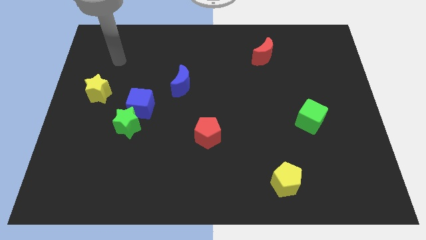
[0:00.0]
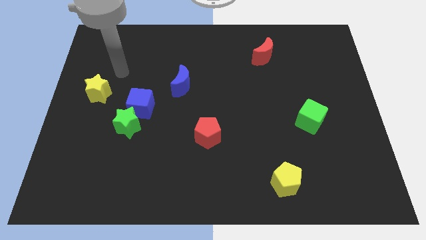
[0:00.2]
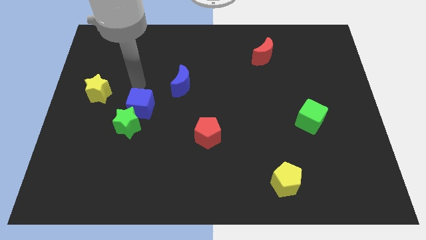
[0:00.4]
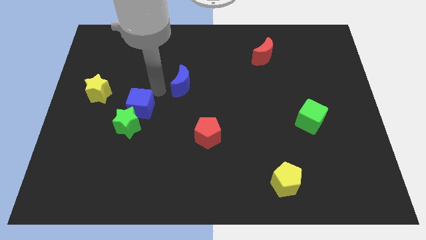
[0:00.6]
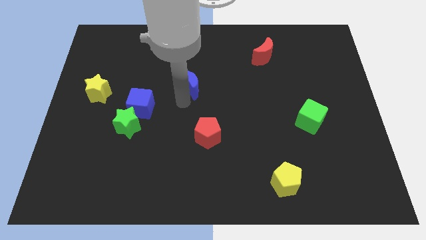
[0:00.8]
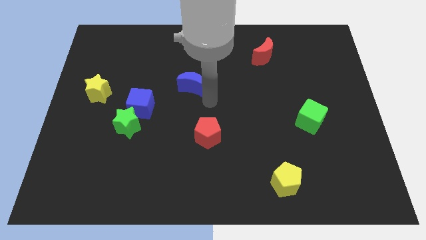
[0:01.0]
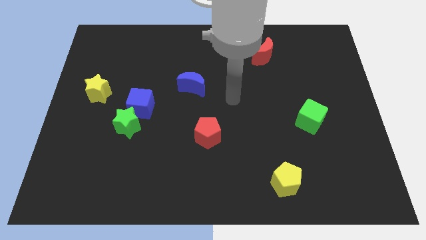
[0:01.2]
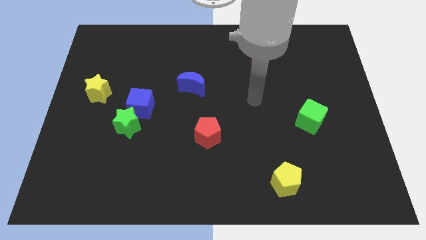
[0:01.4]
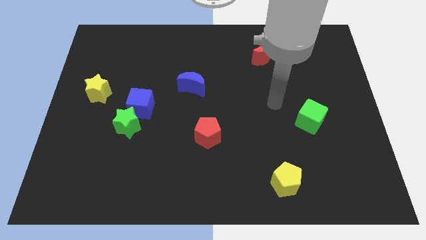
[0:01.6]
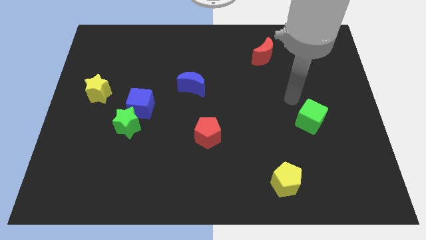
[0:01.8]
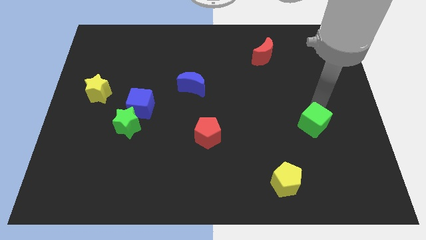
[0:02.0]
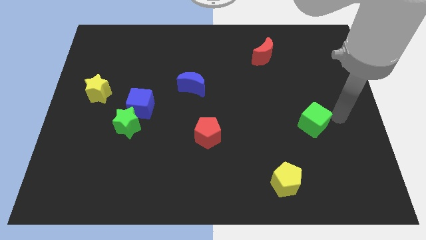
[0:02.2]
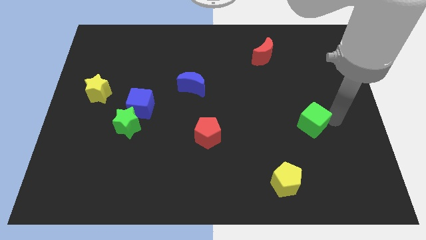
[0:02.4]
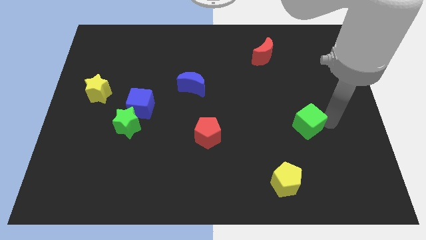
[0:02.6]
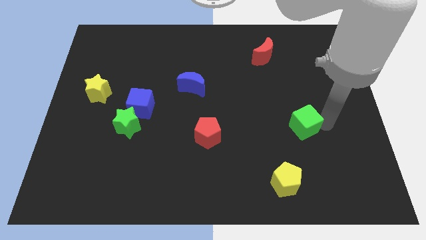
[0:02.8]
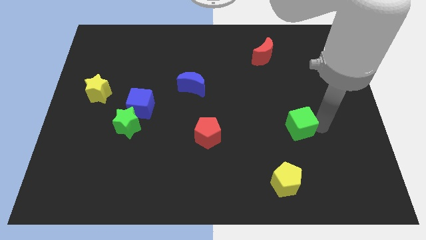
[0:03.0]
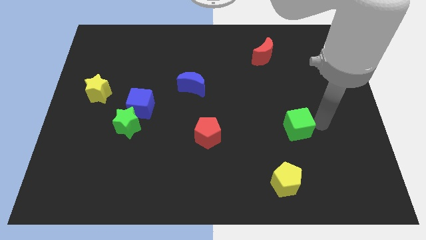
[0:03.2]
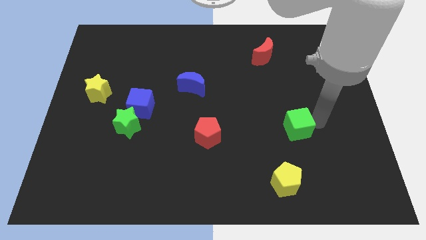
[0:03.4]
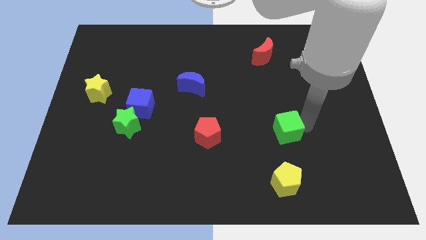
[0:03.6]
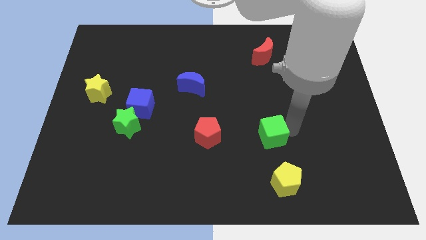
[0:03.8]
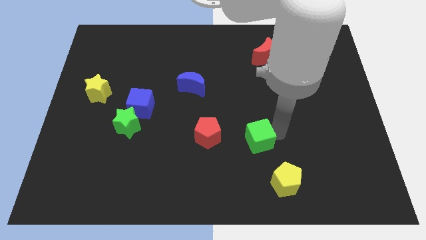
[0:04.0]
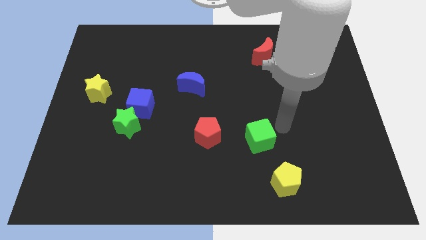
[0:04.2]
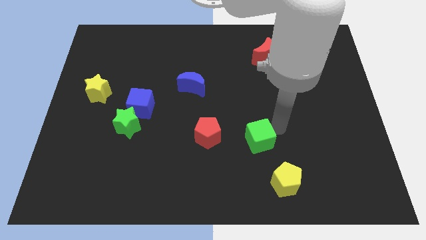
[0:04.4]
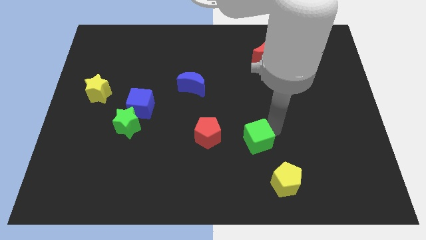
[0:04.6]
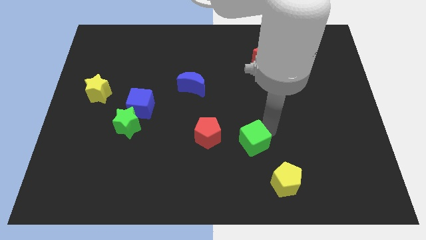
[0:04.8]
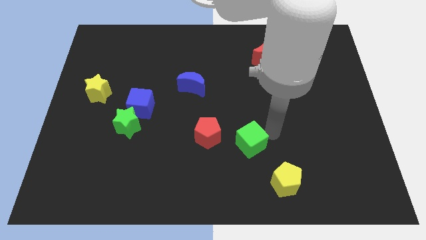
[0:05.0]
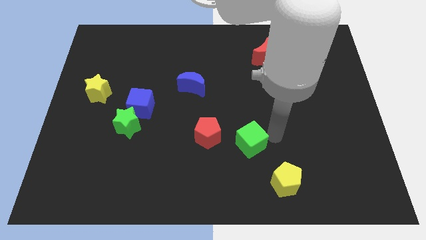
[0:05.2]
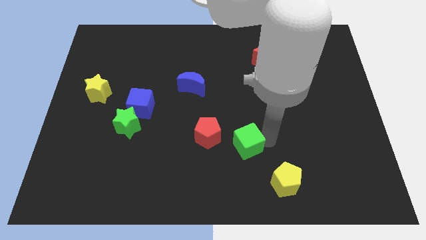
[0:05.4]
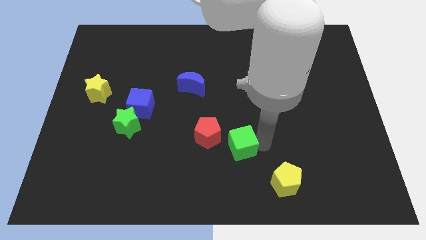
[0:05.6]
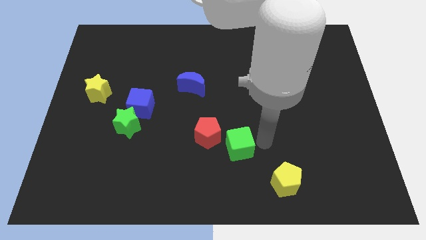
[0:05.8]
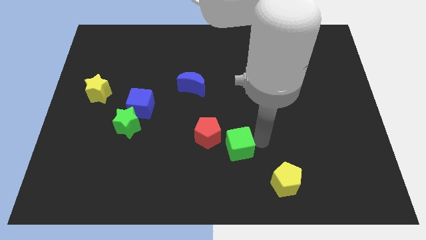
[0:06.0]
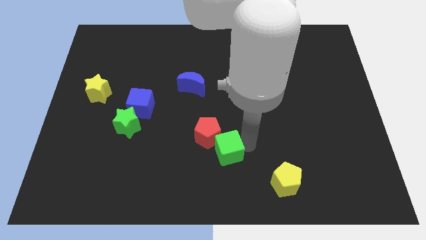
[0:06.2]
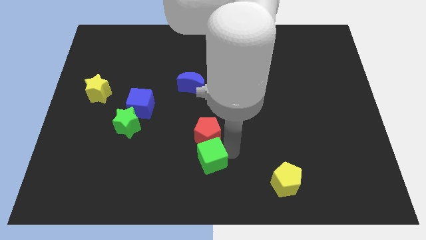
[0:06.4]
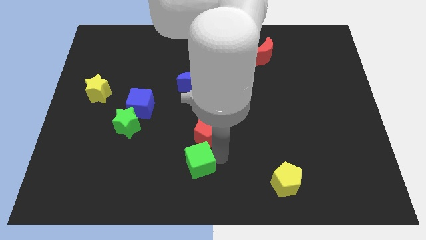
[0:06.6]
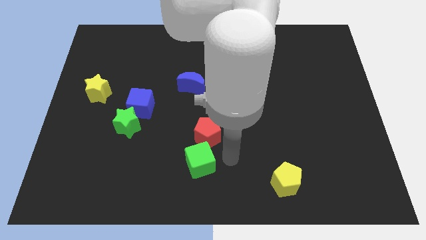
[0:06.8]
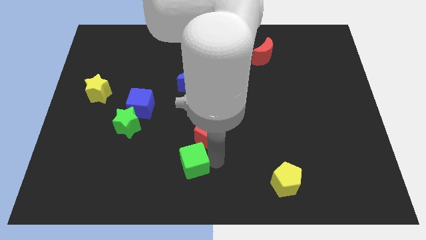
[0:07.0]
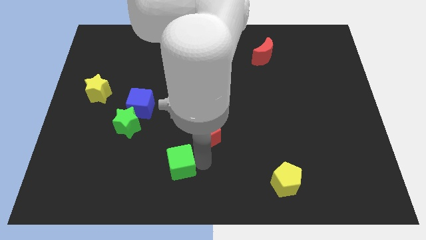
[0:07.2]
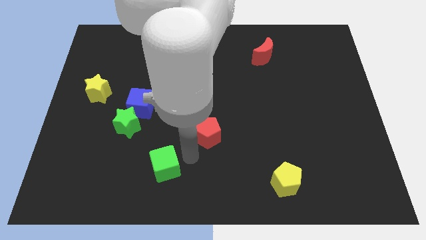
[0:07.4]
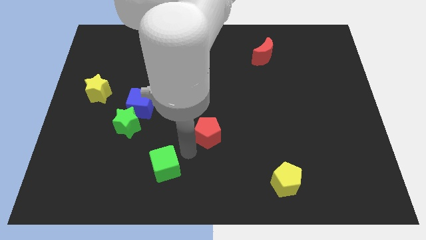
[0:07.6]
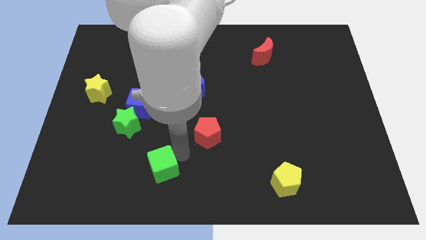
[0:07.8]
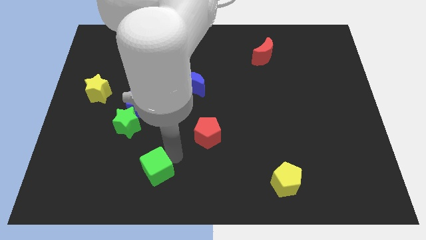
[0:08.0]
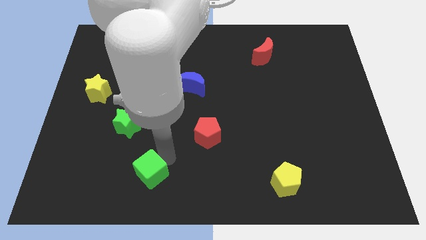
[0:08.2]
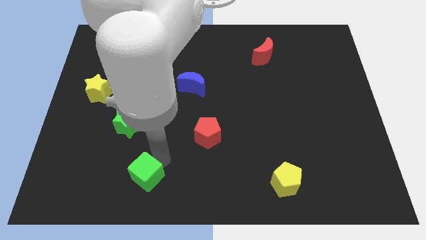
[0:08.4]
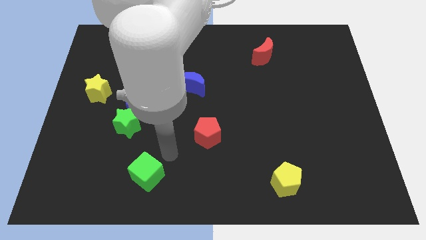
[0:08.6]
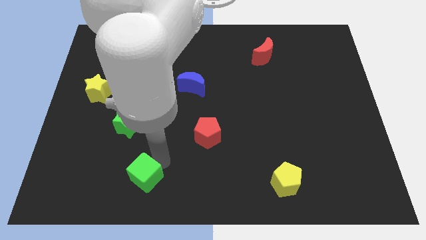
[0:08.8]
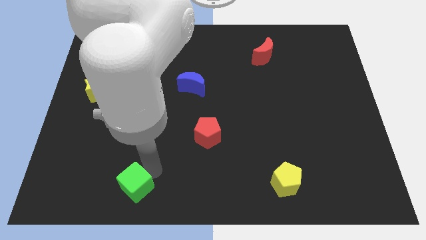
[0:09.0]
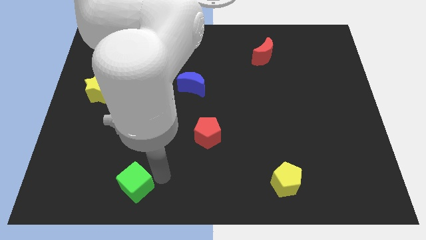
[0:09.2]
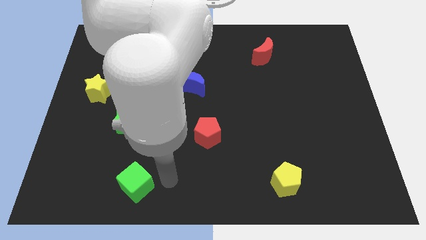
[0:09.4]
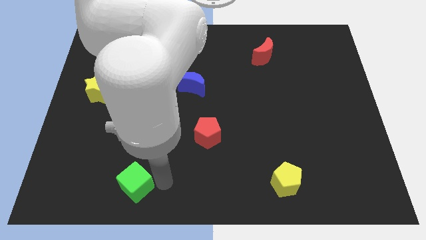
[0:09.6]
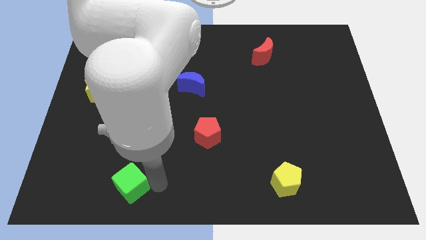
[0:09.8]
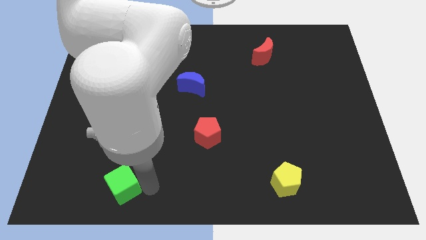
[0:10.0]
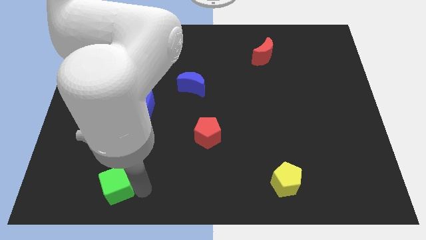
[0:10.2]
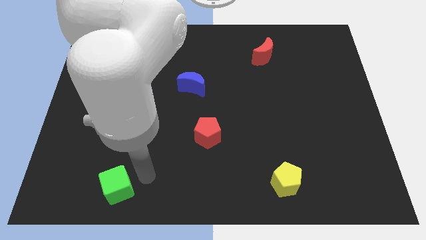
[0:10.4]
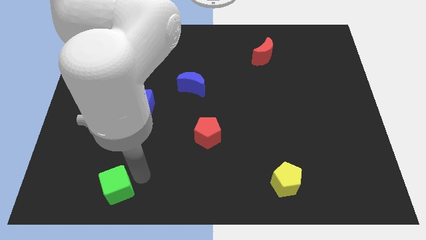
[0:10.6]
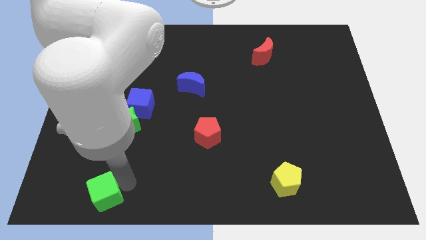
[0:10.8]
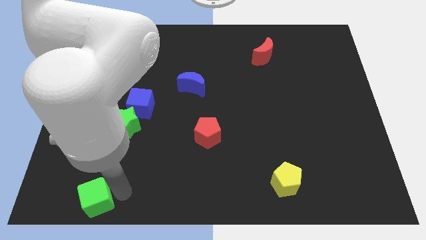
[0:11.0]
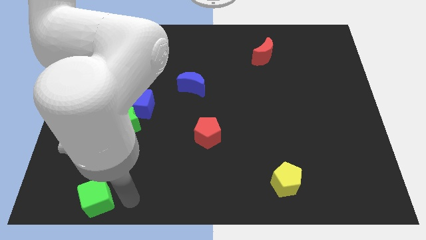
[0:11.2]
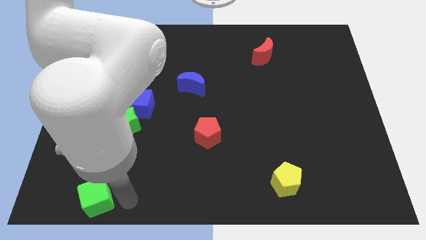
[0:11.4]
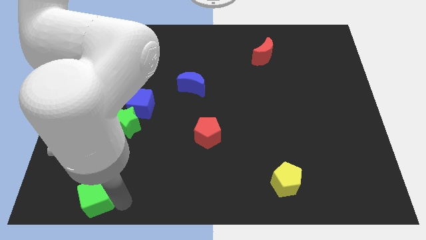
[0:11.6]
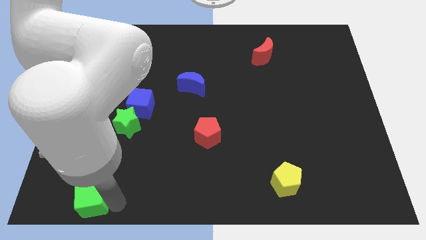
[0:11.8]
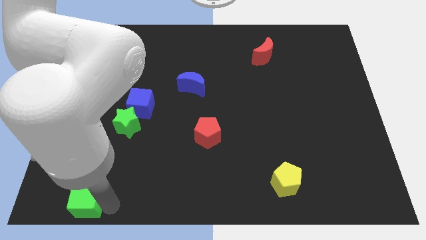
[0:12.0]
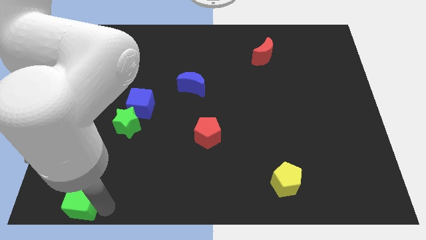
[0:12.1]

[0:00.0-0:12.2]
put the green cube to the bottom left of the board

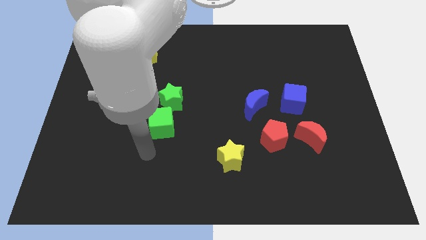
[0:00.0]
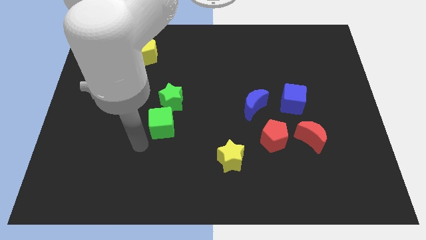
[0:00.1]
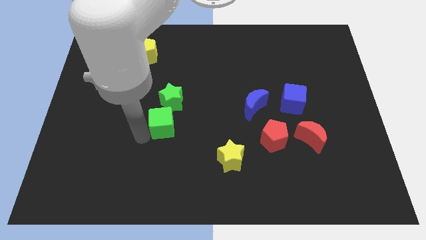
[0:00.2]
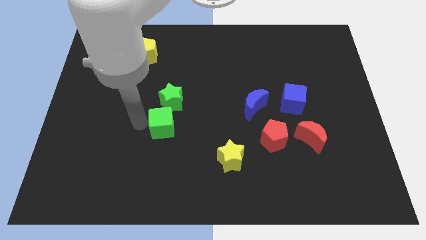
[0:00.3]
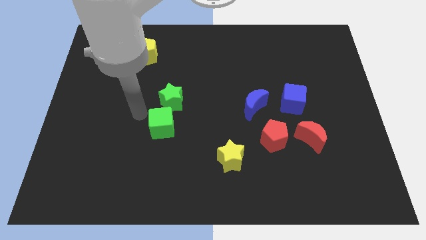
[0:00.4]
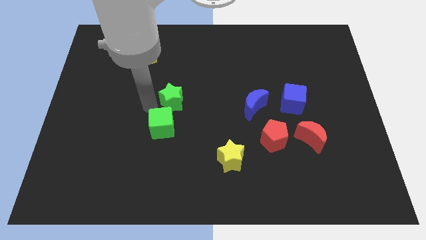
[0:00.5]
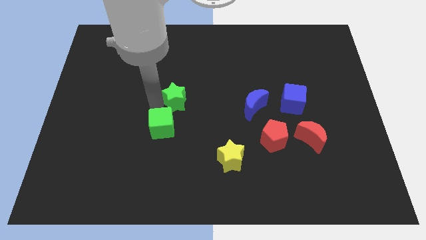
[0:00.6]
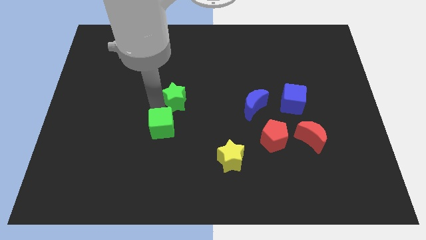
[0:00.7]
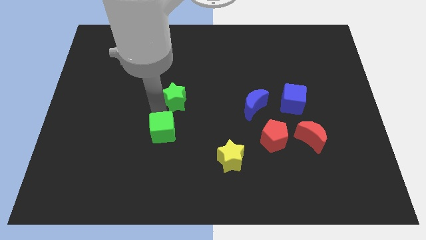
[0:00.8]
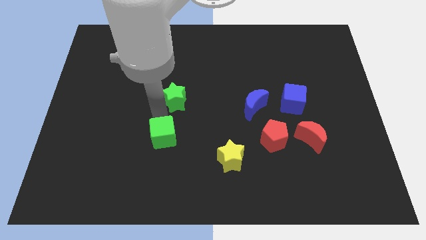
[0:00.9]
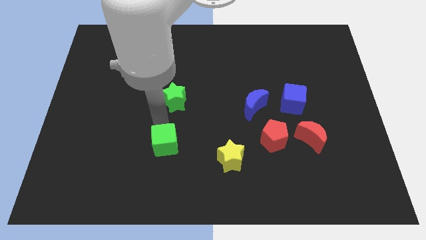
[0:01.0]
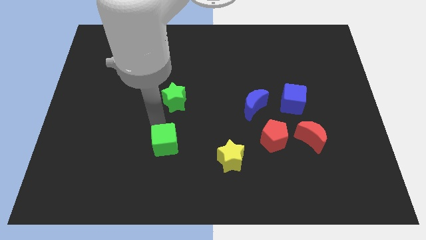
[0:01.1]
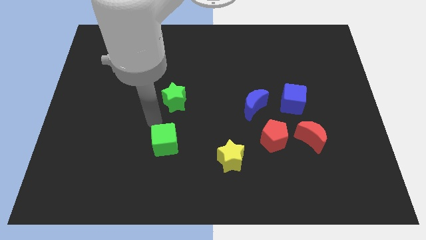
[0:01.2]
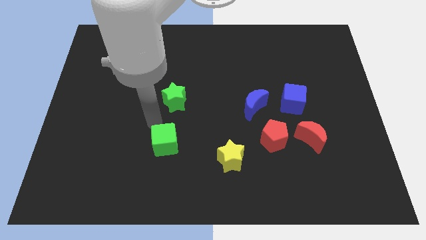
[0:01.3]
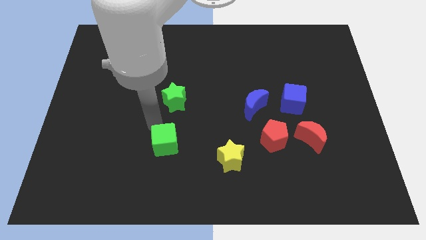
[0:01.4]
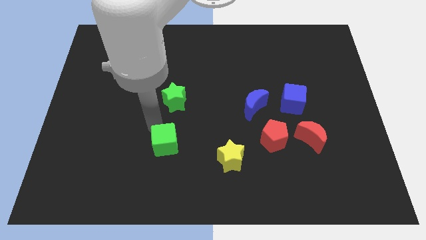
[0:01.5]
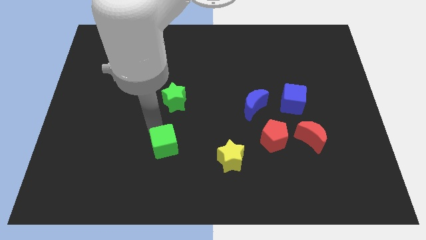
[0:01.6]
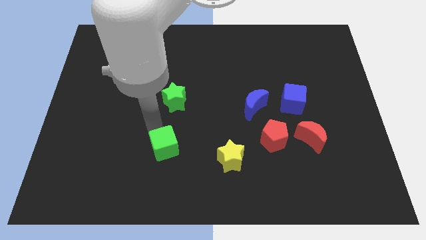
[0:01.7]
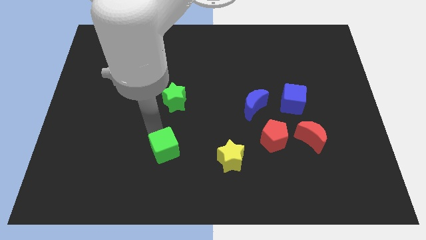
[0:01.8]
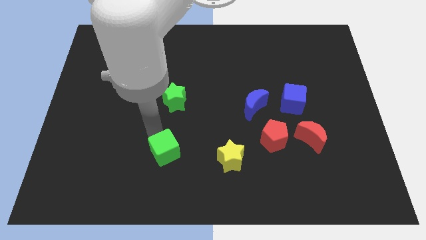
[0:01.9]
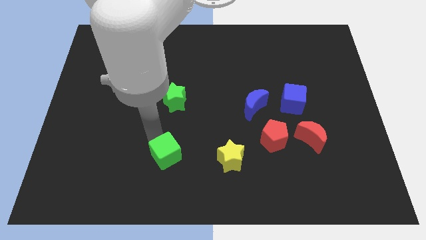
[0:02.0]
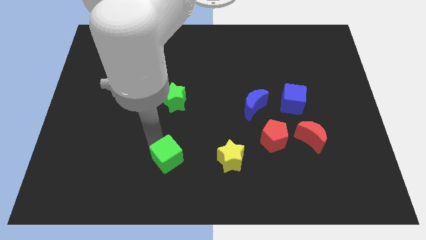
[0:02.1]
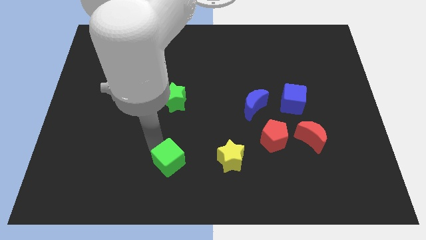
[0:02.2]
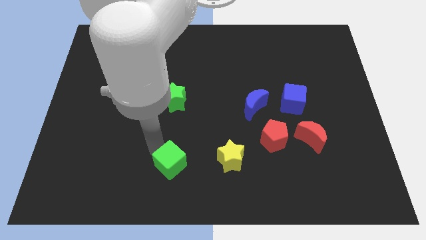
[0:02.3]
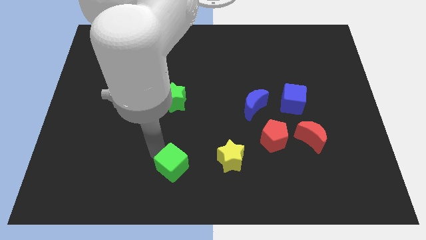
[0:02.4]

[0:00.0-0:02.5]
slide the green cube to the bottom
